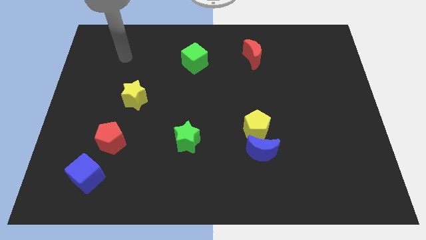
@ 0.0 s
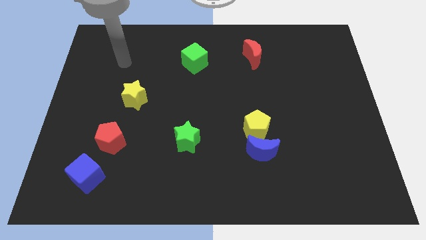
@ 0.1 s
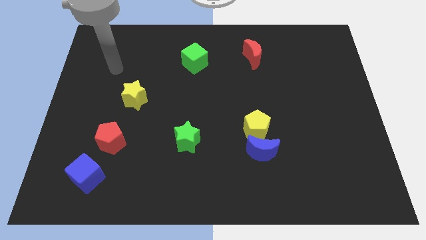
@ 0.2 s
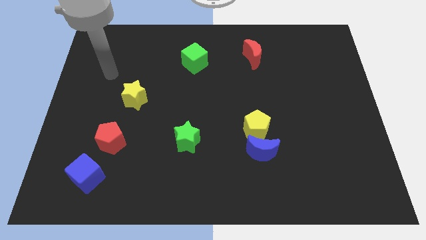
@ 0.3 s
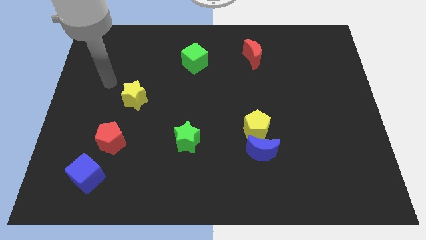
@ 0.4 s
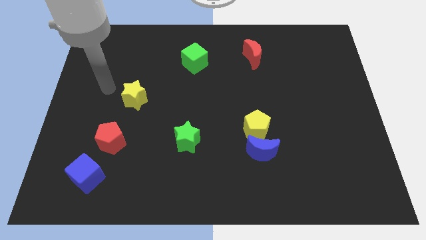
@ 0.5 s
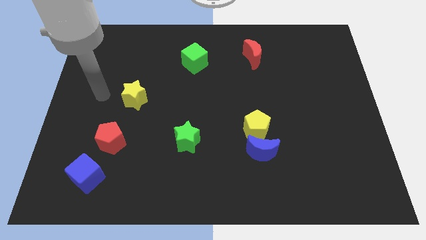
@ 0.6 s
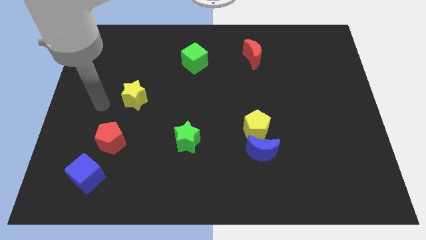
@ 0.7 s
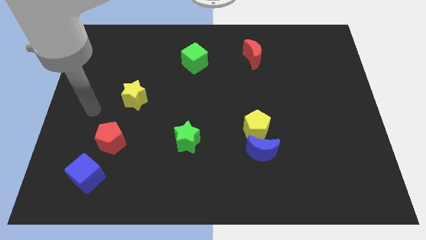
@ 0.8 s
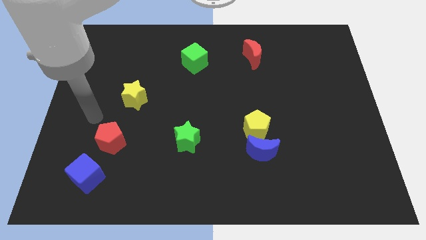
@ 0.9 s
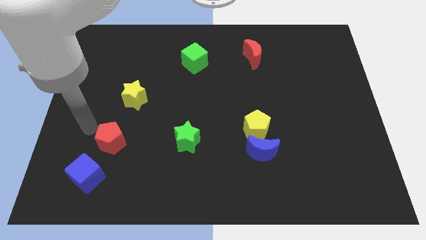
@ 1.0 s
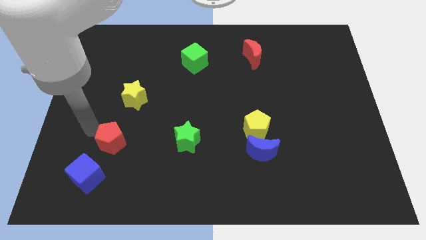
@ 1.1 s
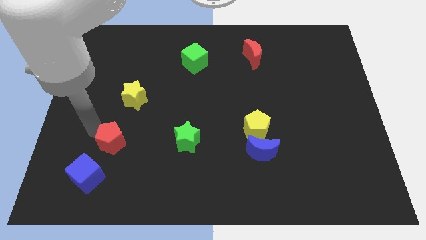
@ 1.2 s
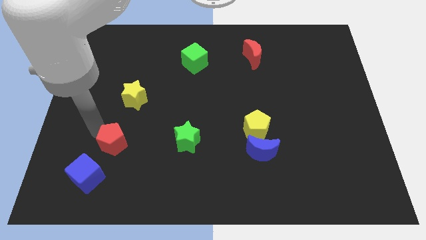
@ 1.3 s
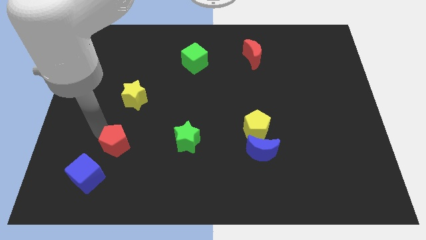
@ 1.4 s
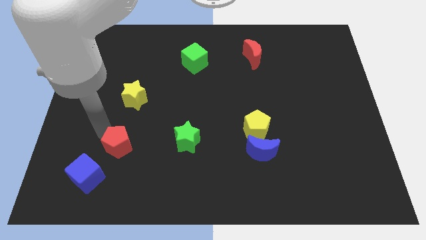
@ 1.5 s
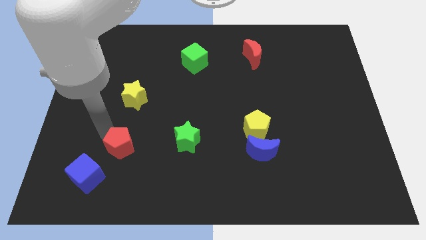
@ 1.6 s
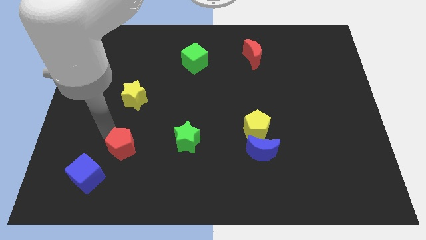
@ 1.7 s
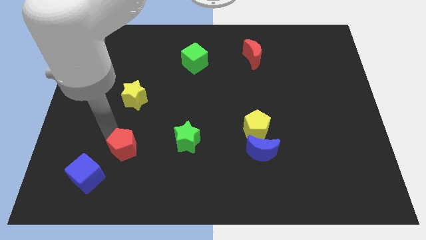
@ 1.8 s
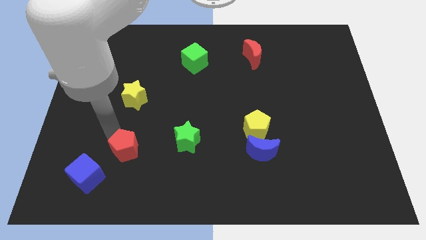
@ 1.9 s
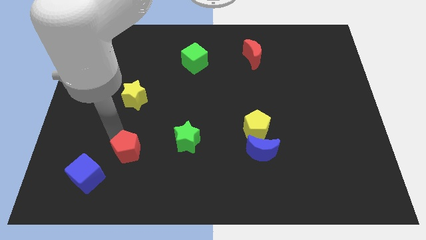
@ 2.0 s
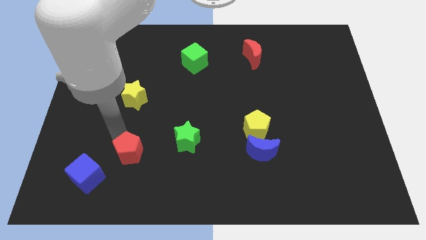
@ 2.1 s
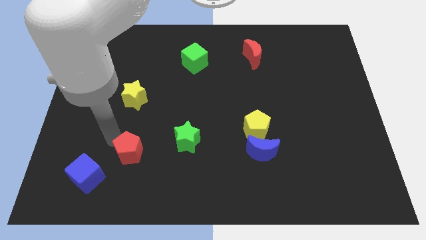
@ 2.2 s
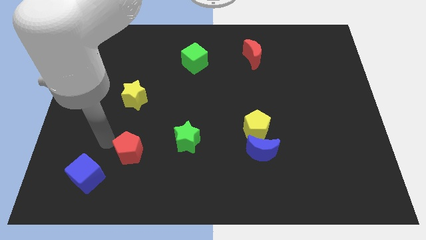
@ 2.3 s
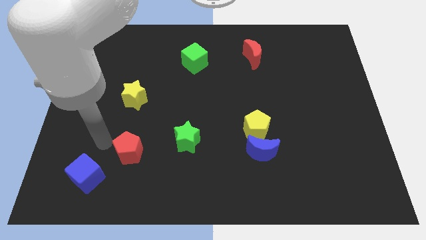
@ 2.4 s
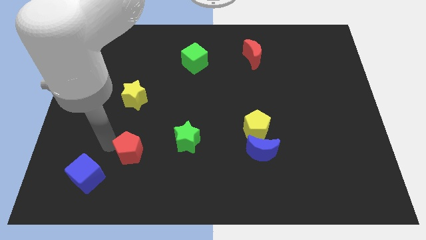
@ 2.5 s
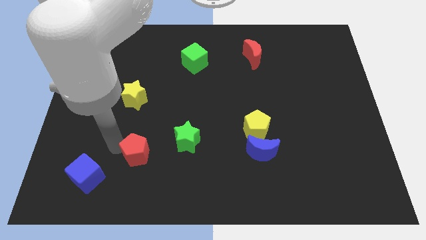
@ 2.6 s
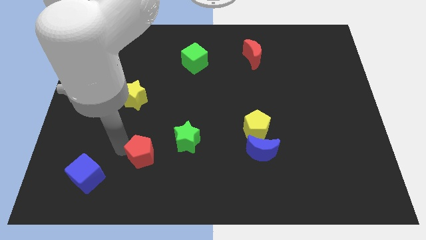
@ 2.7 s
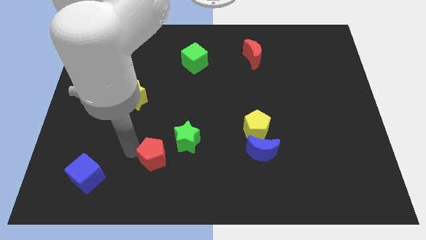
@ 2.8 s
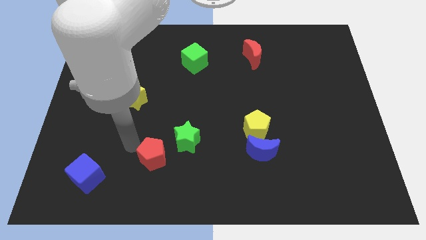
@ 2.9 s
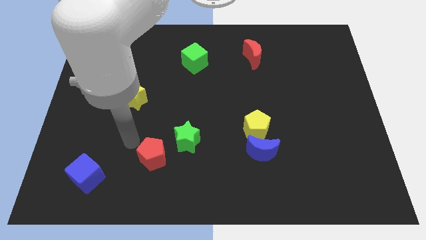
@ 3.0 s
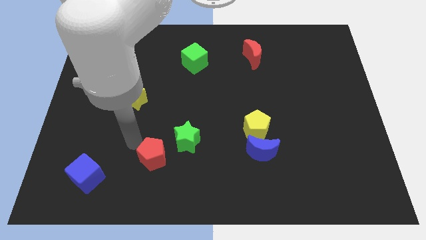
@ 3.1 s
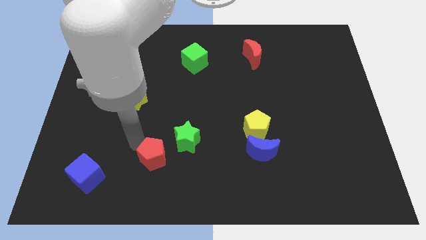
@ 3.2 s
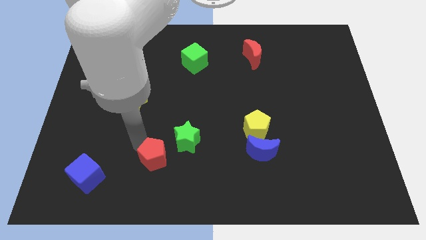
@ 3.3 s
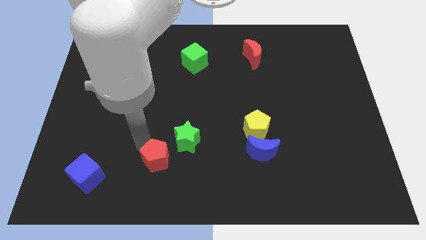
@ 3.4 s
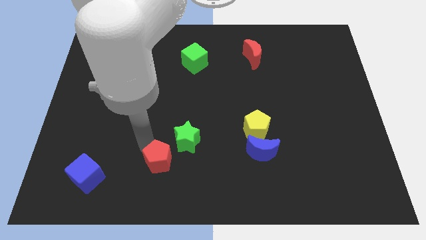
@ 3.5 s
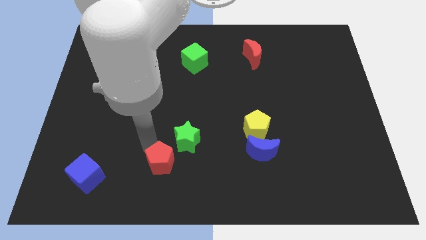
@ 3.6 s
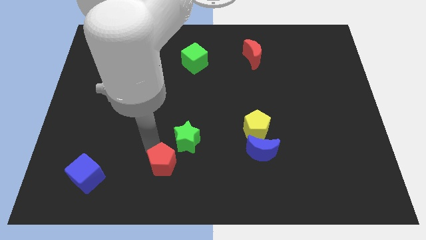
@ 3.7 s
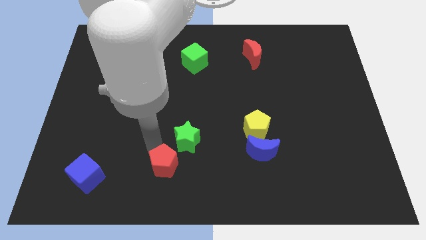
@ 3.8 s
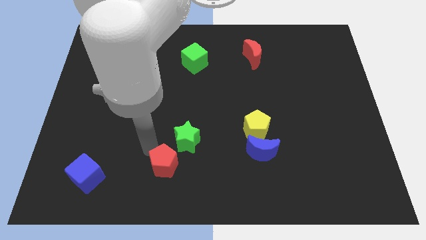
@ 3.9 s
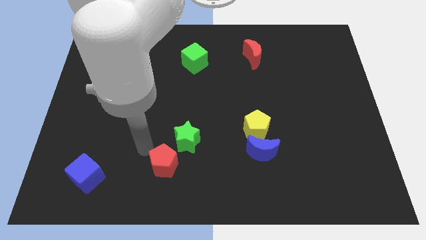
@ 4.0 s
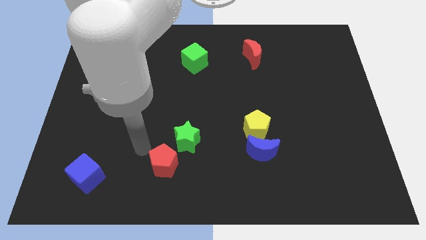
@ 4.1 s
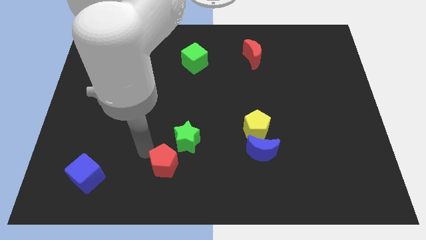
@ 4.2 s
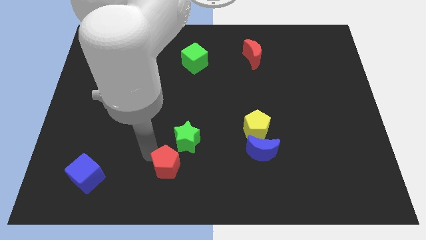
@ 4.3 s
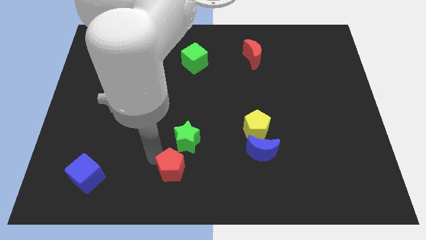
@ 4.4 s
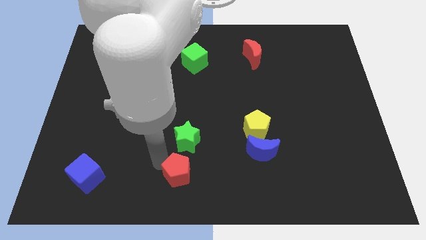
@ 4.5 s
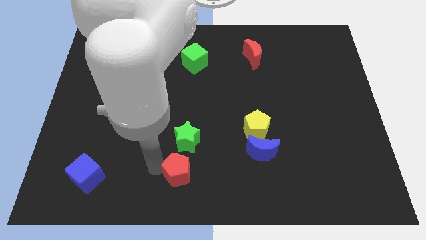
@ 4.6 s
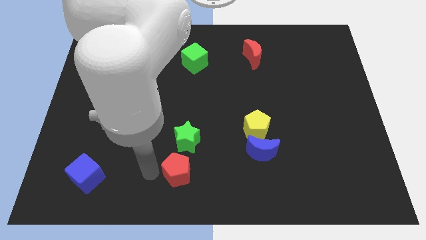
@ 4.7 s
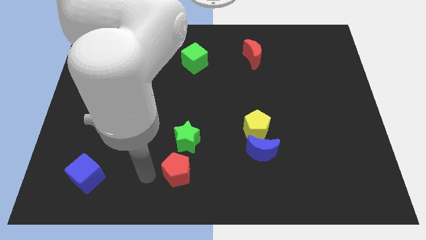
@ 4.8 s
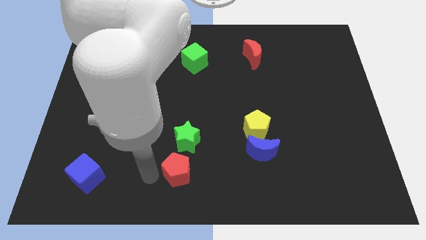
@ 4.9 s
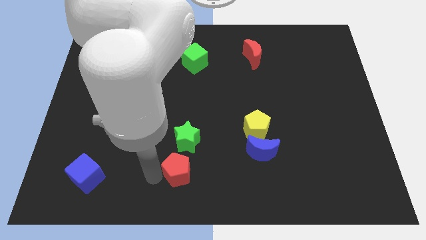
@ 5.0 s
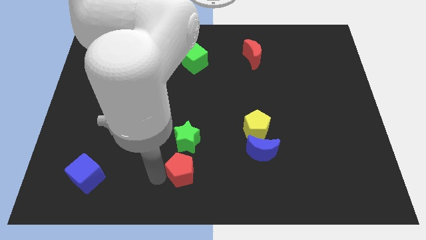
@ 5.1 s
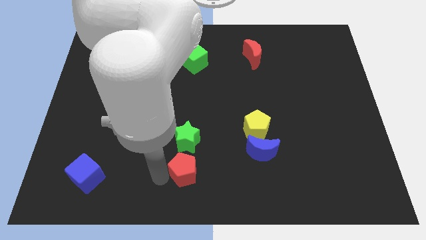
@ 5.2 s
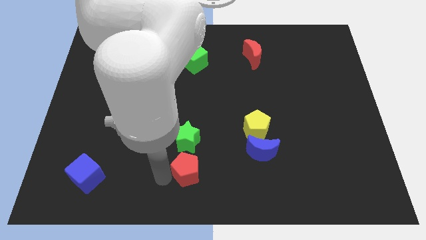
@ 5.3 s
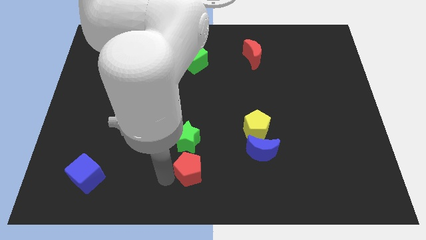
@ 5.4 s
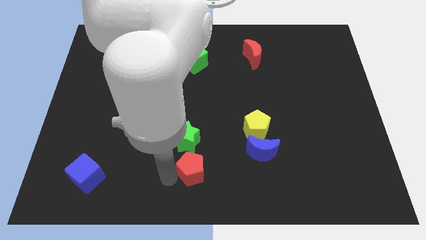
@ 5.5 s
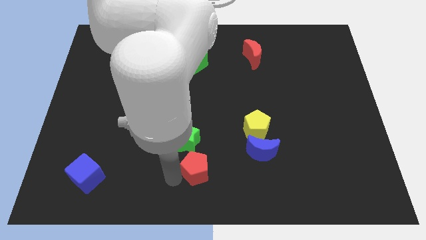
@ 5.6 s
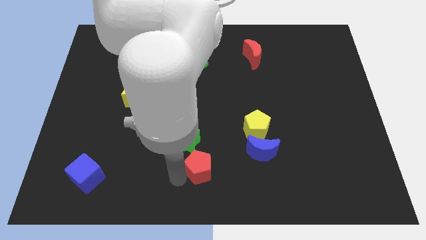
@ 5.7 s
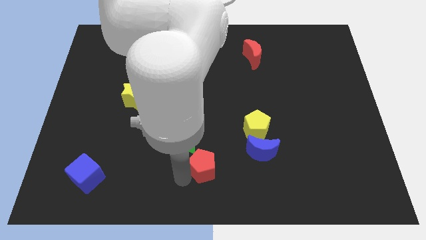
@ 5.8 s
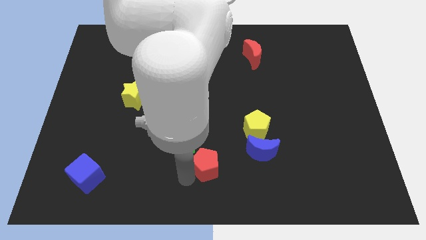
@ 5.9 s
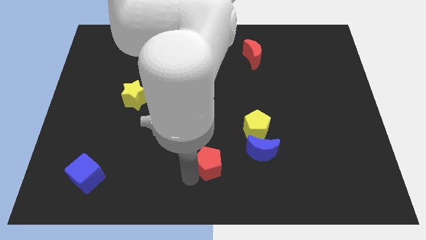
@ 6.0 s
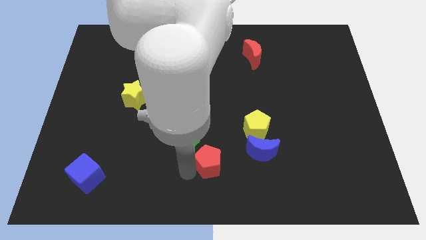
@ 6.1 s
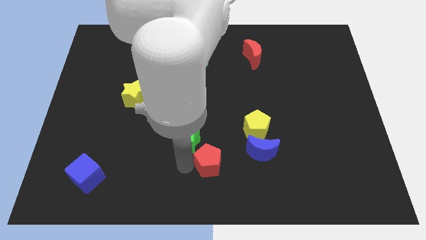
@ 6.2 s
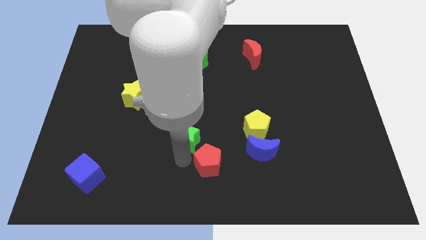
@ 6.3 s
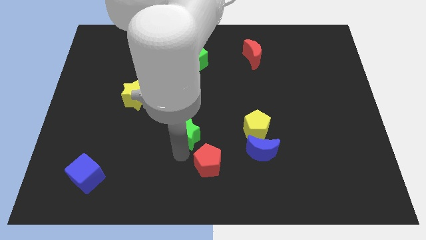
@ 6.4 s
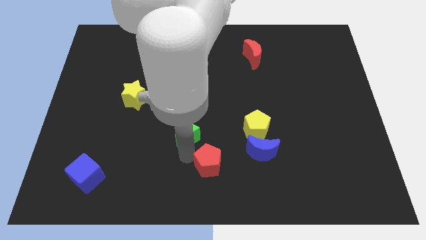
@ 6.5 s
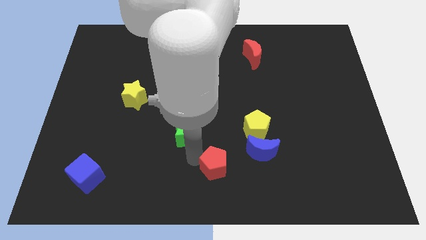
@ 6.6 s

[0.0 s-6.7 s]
slide the red pentagon diagonally down and to the left of the blue moon

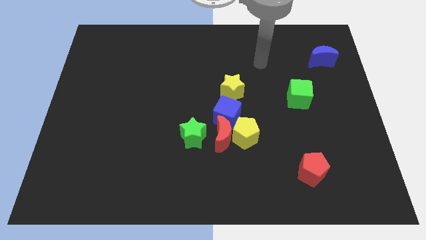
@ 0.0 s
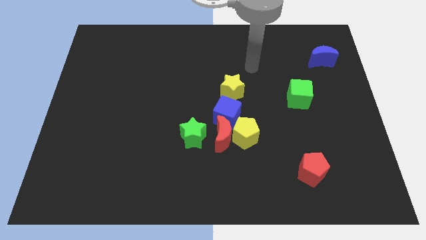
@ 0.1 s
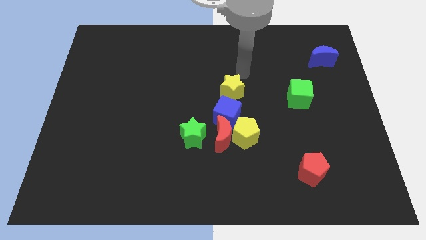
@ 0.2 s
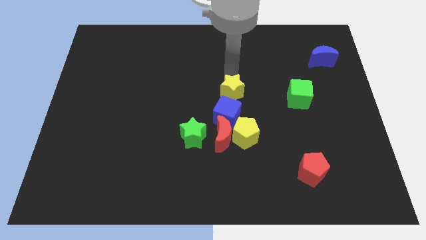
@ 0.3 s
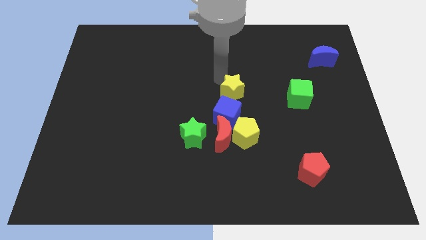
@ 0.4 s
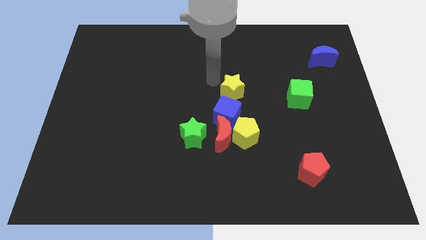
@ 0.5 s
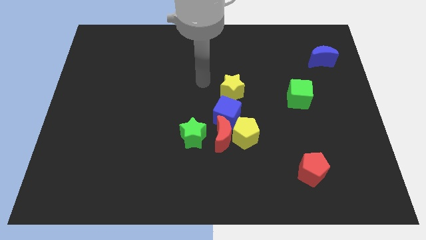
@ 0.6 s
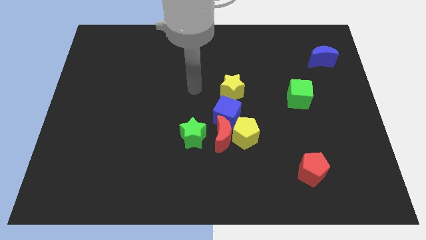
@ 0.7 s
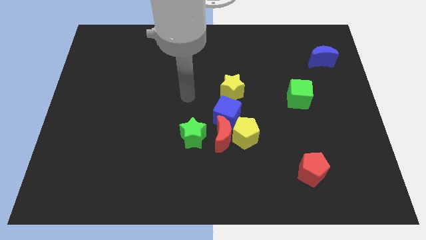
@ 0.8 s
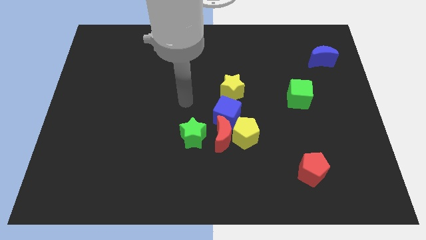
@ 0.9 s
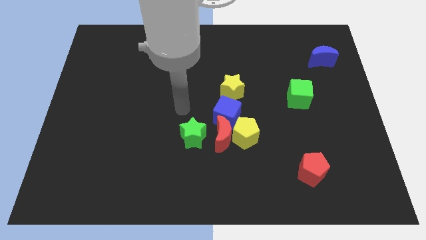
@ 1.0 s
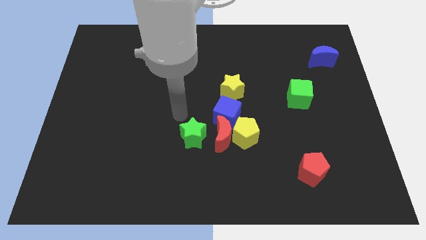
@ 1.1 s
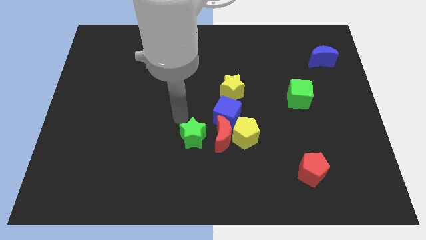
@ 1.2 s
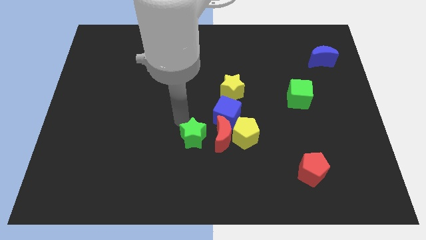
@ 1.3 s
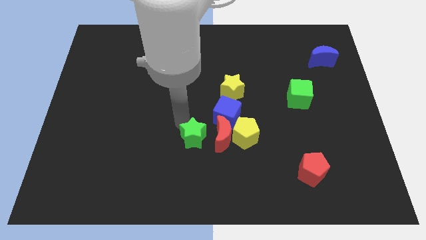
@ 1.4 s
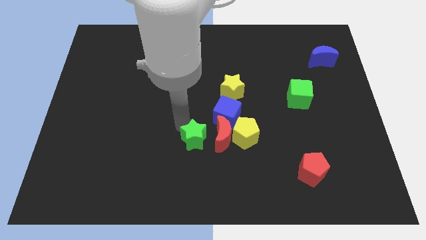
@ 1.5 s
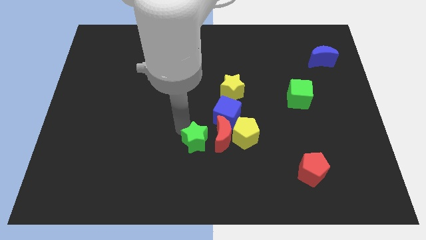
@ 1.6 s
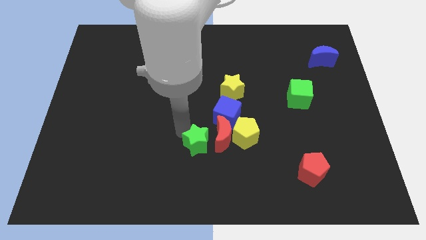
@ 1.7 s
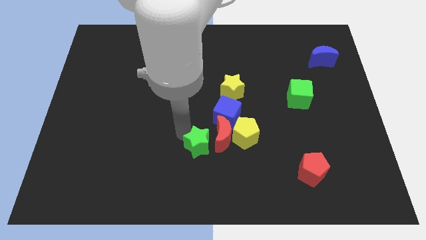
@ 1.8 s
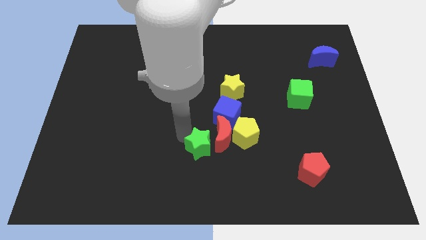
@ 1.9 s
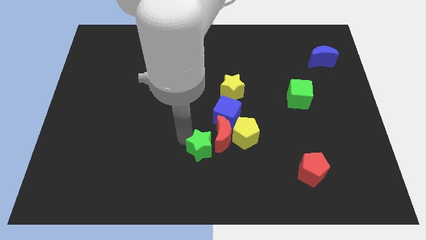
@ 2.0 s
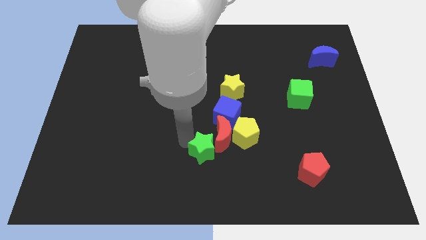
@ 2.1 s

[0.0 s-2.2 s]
slide the green star to the bottom side of the red moon
